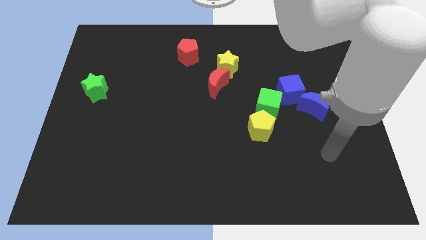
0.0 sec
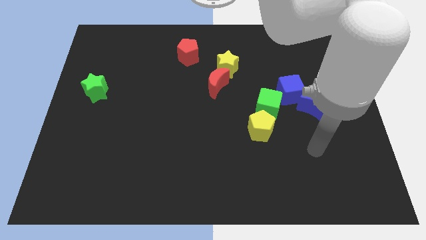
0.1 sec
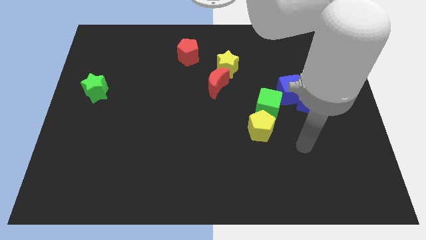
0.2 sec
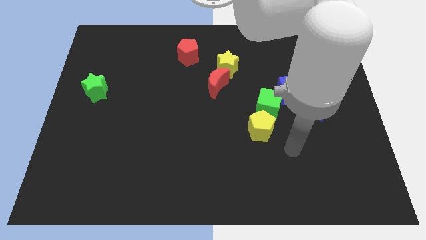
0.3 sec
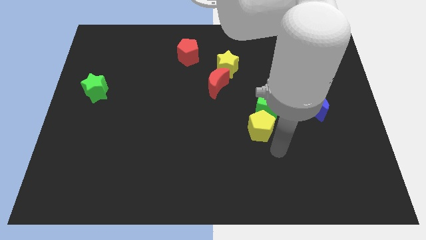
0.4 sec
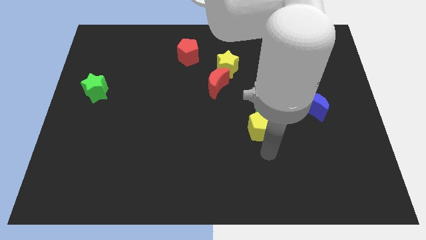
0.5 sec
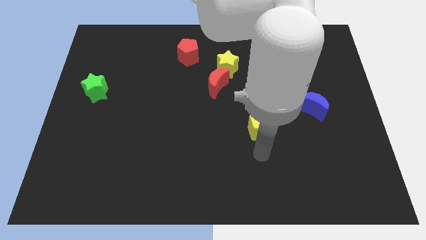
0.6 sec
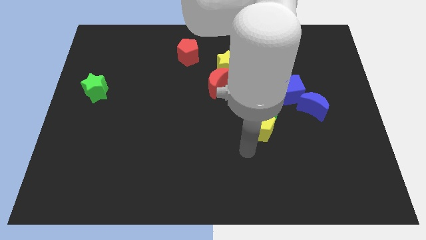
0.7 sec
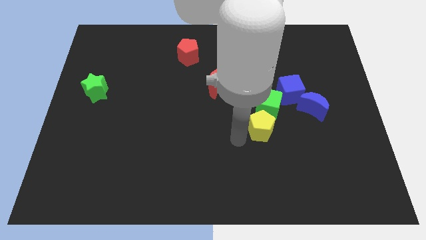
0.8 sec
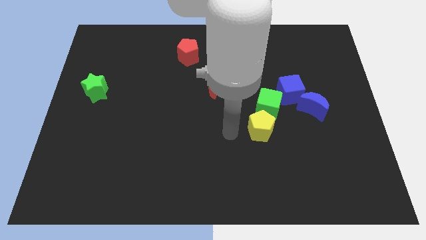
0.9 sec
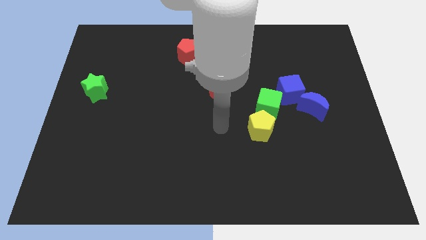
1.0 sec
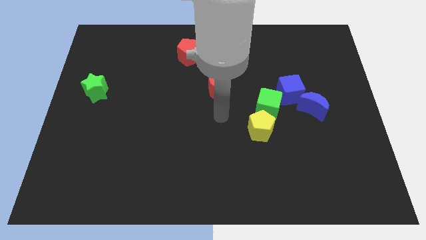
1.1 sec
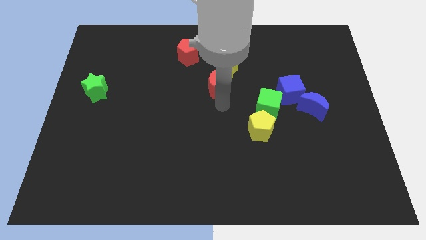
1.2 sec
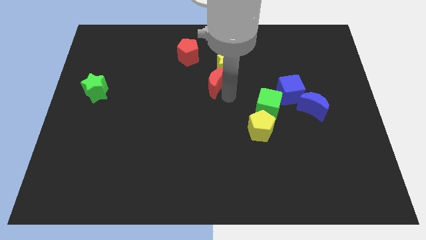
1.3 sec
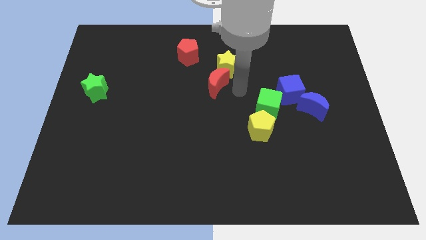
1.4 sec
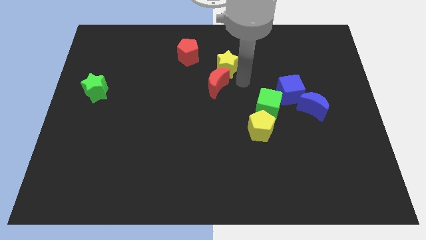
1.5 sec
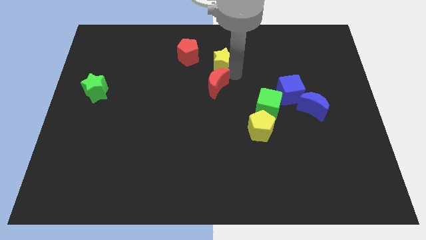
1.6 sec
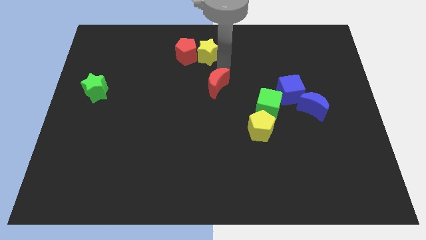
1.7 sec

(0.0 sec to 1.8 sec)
move the red moon away from the yellow star

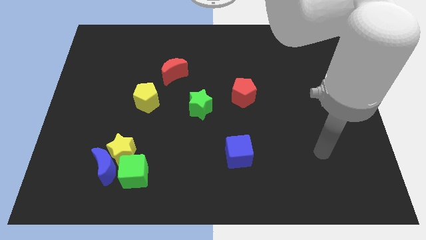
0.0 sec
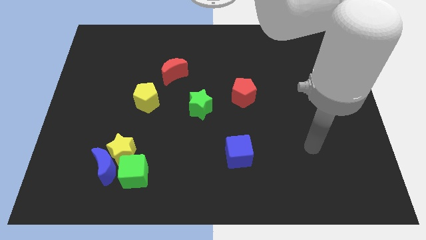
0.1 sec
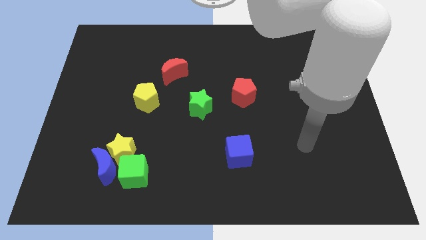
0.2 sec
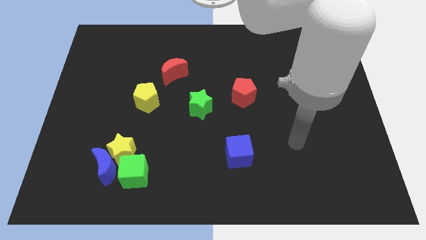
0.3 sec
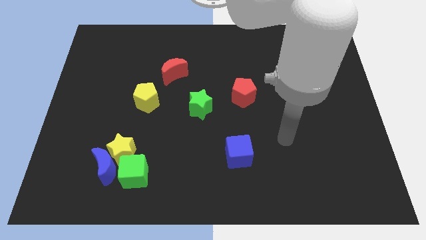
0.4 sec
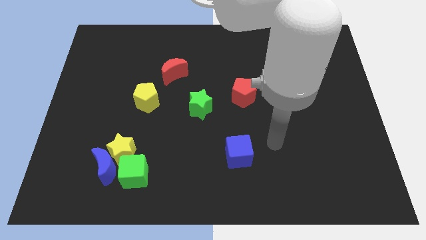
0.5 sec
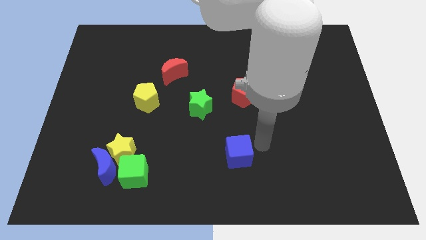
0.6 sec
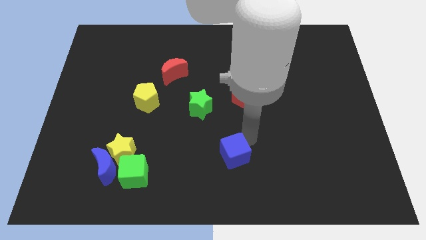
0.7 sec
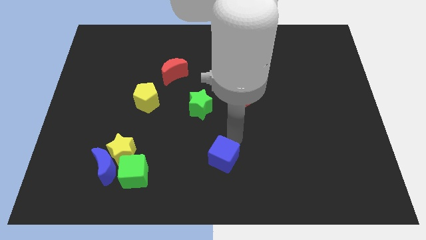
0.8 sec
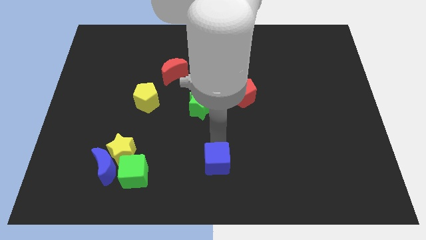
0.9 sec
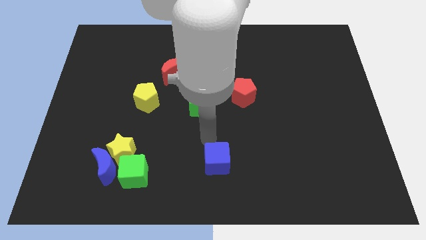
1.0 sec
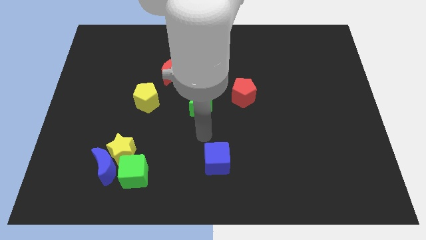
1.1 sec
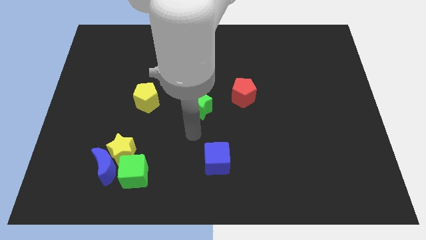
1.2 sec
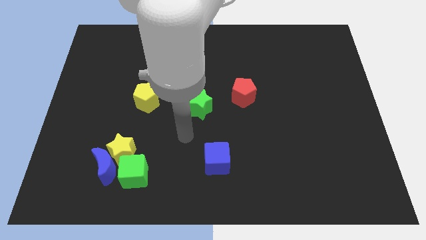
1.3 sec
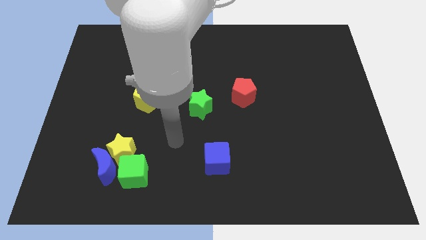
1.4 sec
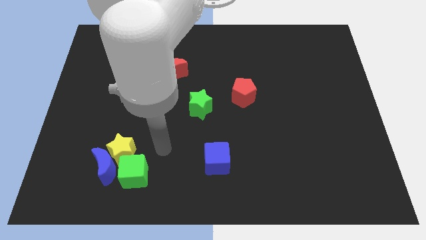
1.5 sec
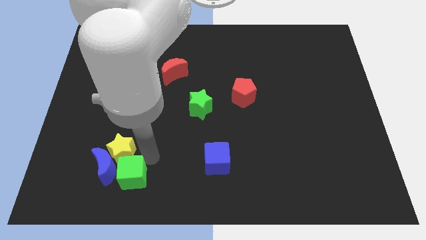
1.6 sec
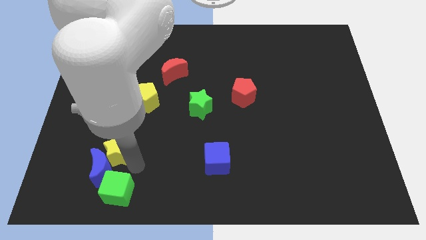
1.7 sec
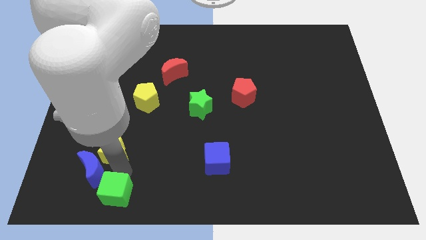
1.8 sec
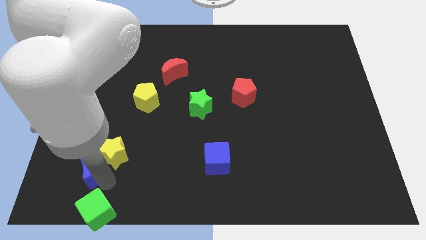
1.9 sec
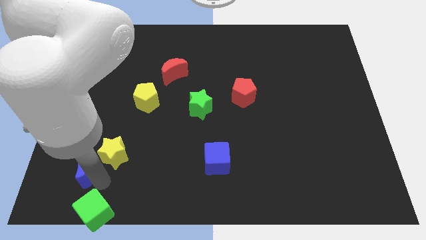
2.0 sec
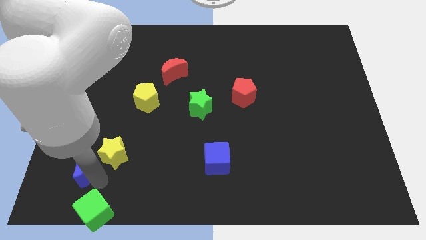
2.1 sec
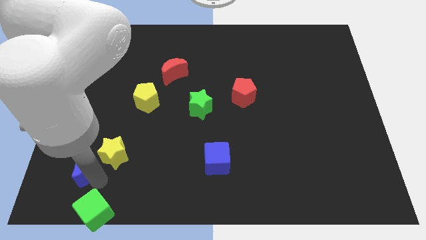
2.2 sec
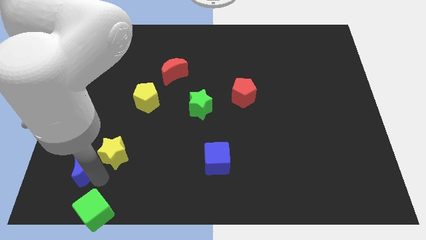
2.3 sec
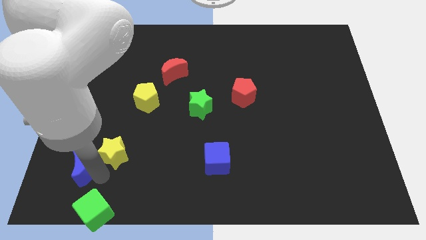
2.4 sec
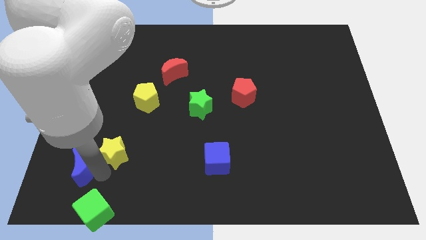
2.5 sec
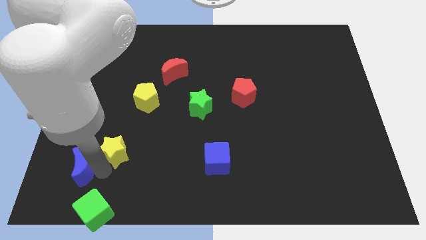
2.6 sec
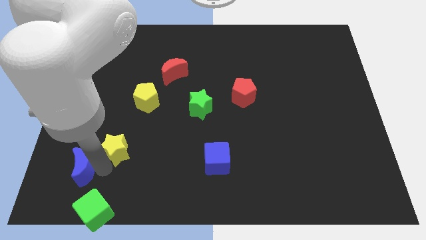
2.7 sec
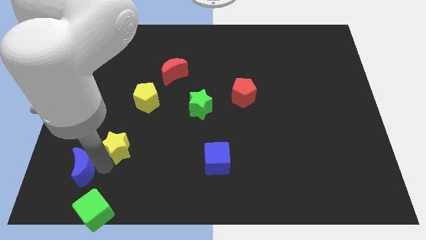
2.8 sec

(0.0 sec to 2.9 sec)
pull the yellow star apart from the blue moon and green cube

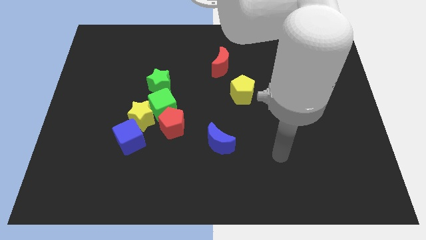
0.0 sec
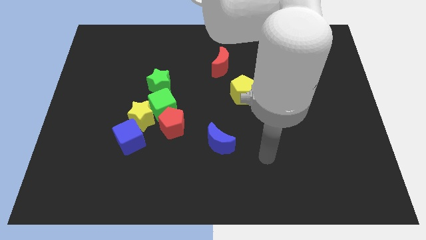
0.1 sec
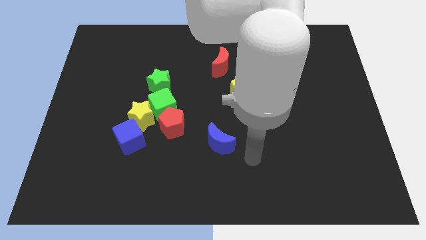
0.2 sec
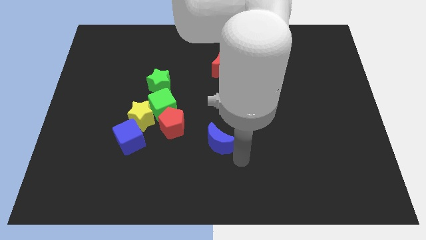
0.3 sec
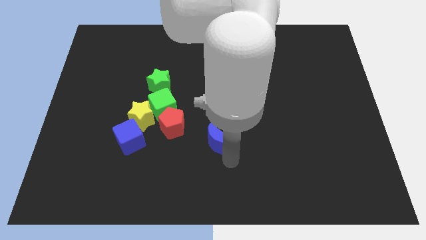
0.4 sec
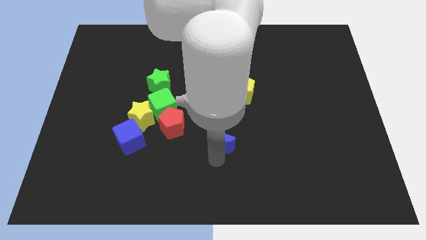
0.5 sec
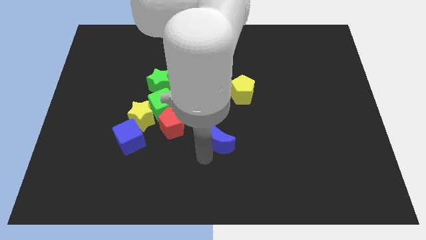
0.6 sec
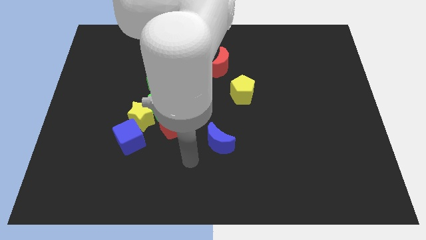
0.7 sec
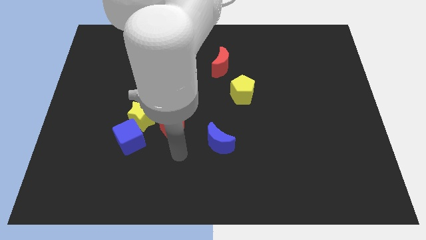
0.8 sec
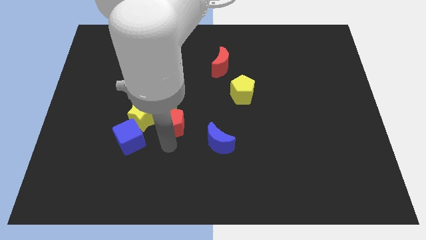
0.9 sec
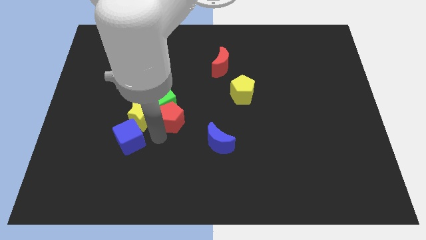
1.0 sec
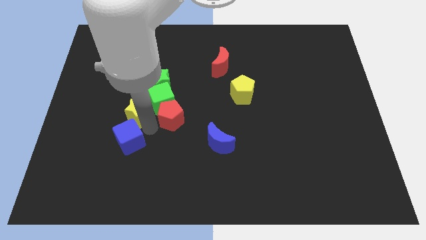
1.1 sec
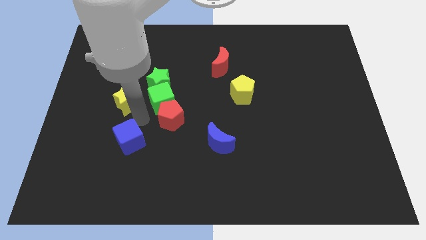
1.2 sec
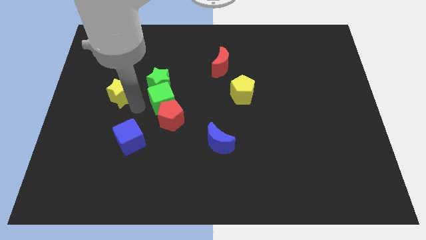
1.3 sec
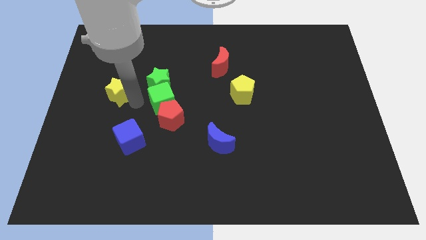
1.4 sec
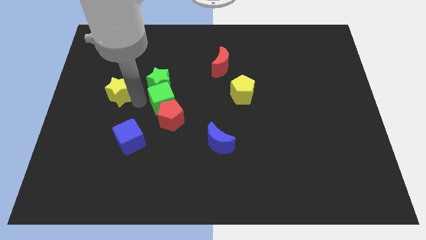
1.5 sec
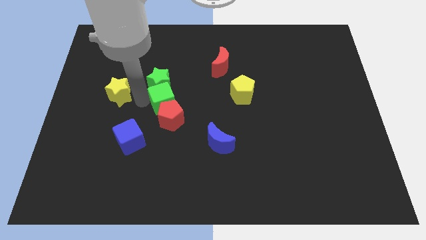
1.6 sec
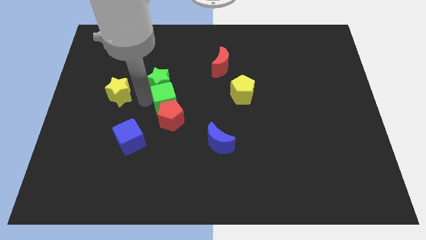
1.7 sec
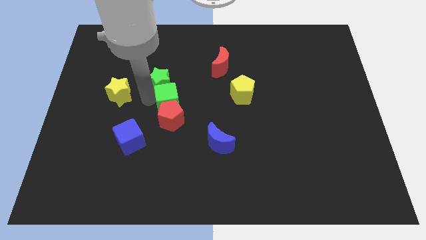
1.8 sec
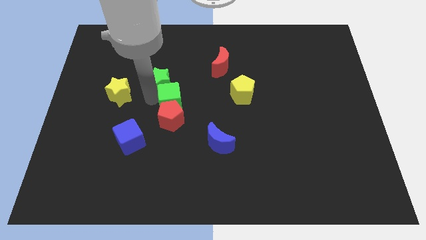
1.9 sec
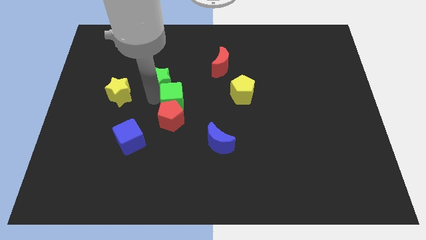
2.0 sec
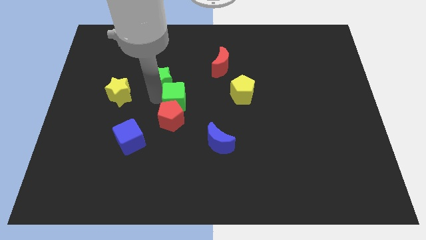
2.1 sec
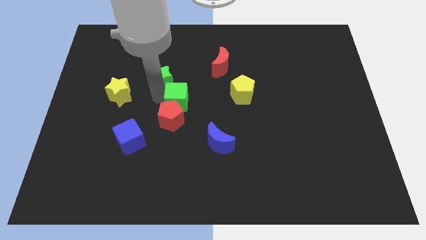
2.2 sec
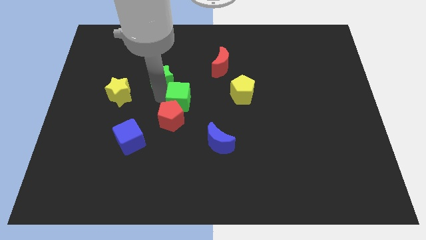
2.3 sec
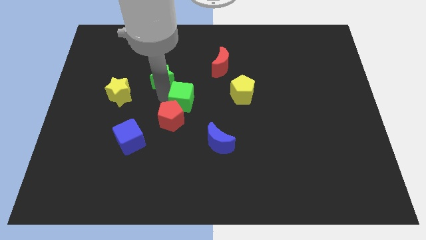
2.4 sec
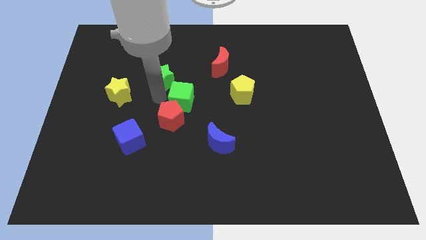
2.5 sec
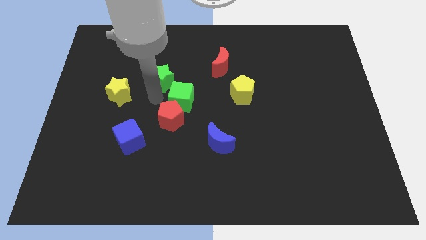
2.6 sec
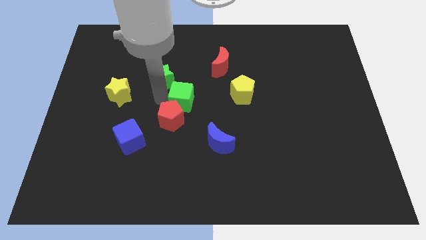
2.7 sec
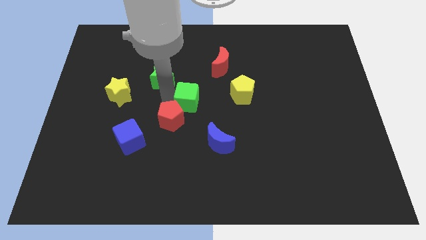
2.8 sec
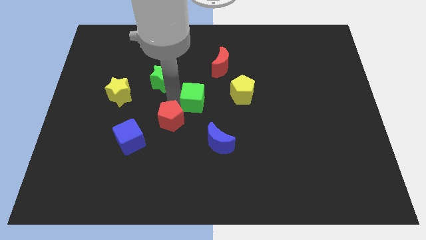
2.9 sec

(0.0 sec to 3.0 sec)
move the green cube away from the group of blocks

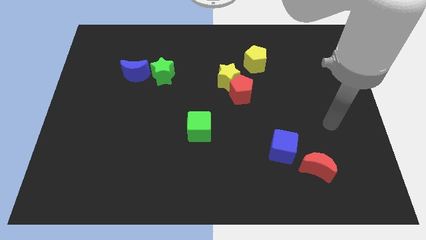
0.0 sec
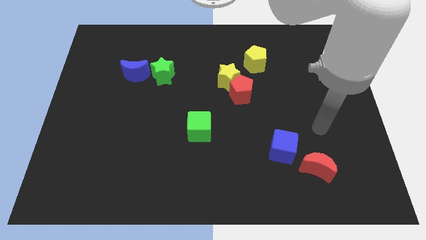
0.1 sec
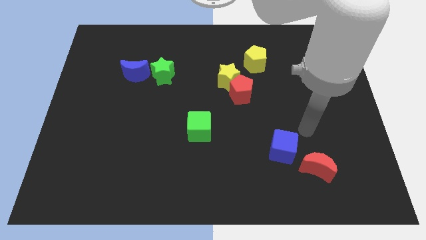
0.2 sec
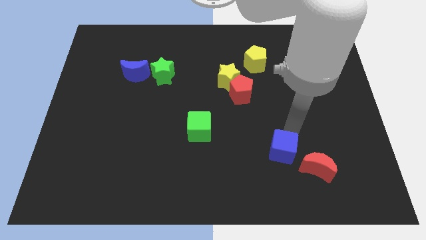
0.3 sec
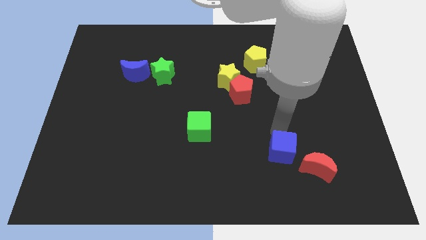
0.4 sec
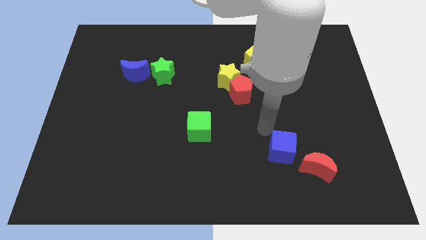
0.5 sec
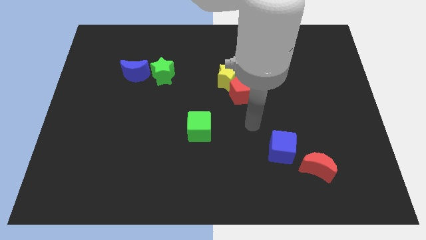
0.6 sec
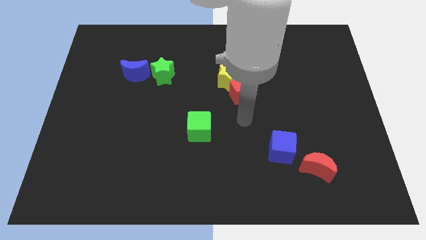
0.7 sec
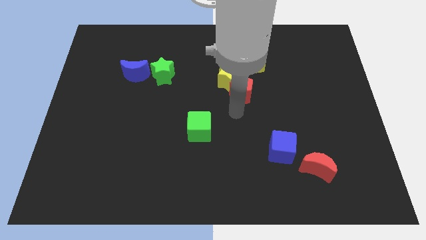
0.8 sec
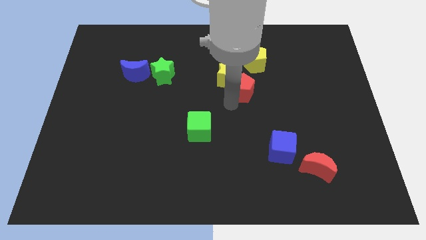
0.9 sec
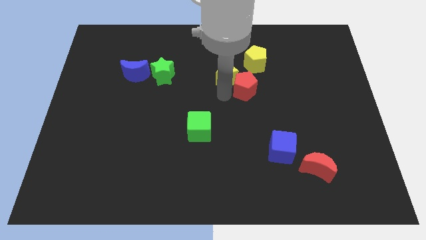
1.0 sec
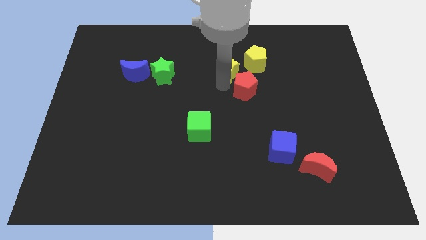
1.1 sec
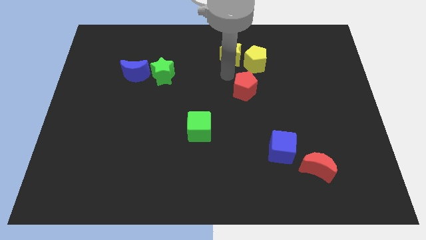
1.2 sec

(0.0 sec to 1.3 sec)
separate the red pentagon from the yellow star

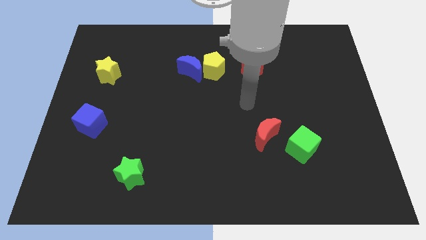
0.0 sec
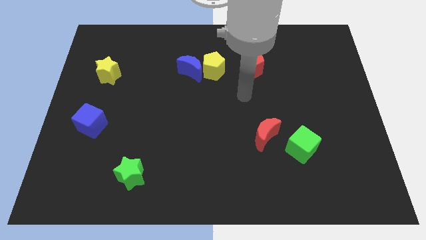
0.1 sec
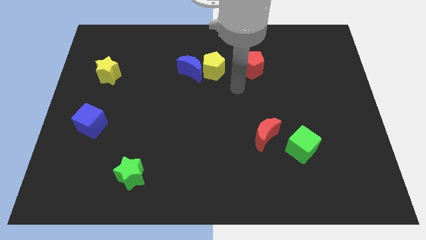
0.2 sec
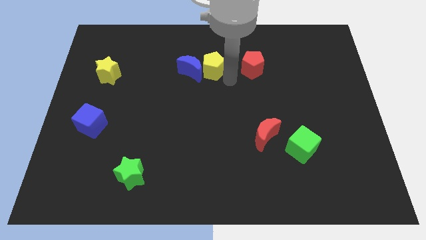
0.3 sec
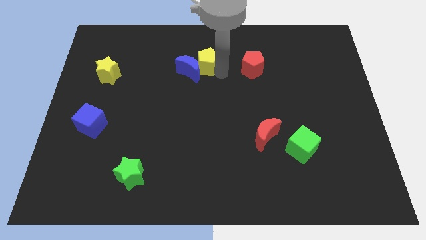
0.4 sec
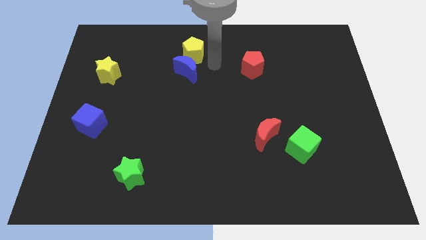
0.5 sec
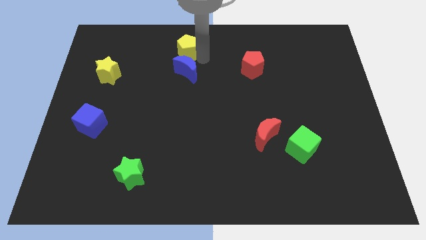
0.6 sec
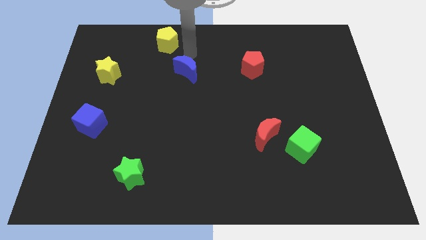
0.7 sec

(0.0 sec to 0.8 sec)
separate the blue moon from the yellow pentagon
